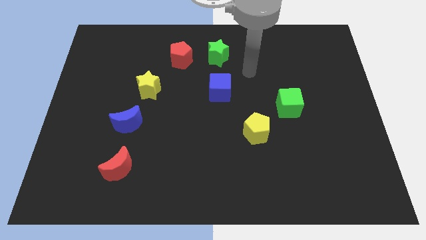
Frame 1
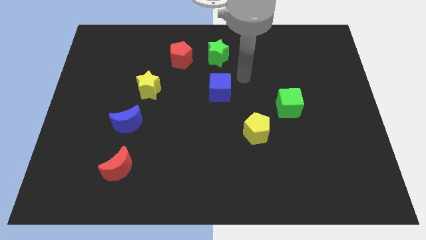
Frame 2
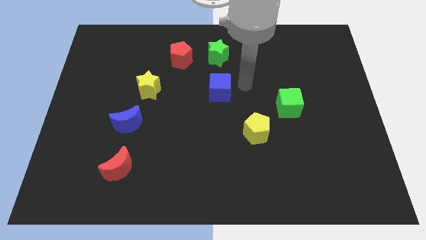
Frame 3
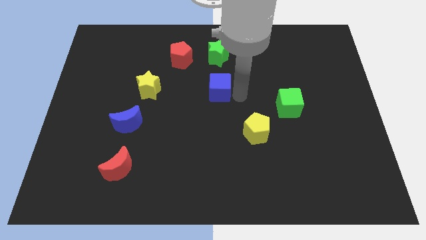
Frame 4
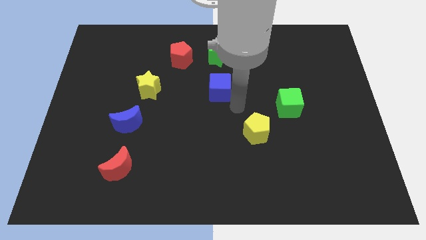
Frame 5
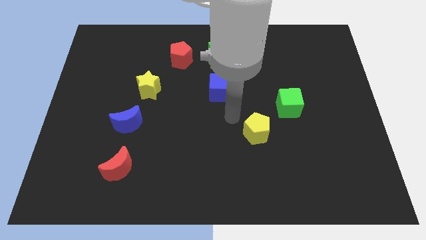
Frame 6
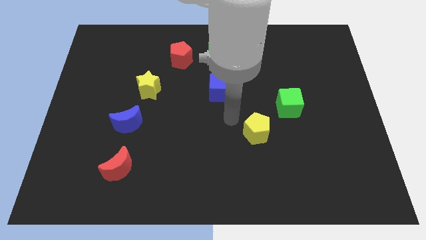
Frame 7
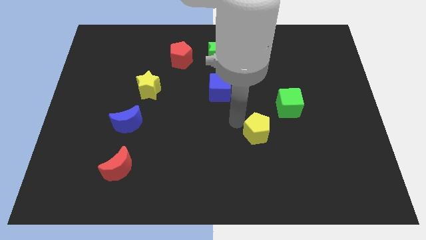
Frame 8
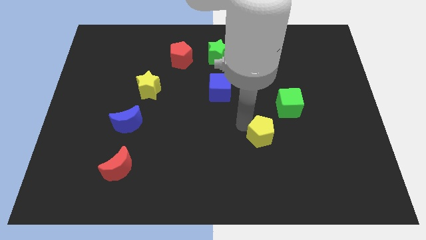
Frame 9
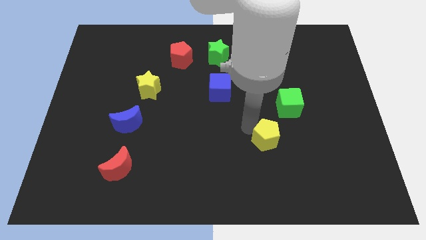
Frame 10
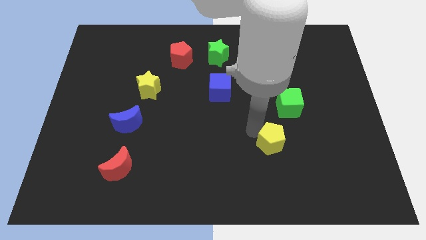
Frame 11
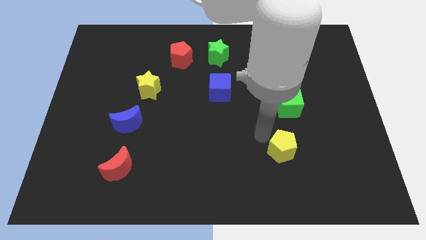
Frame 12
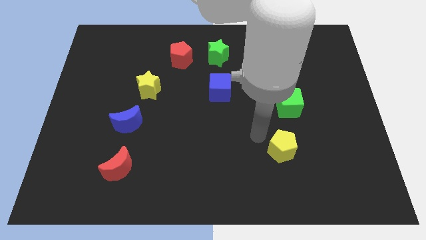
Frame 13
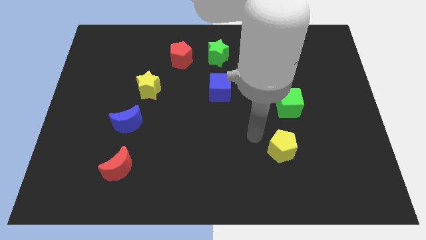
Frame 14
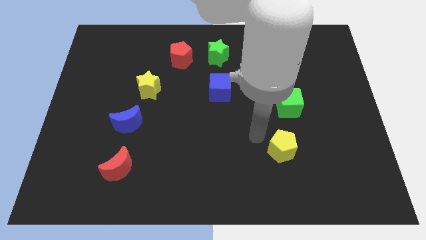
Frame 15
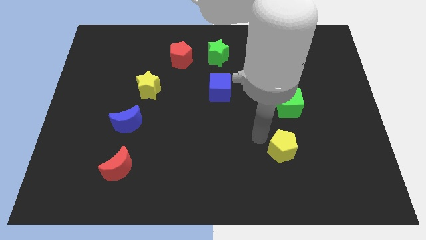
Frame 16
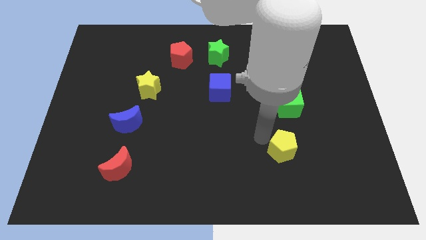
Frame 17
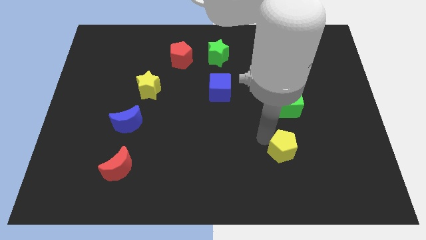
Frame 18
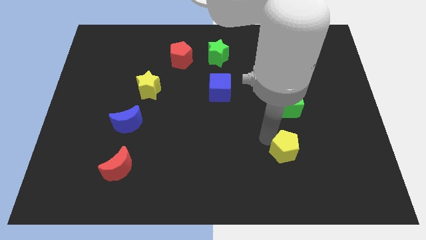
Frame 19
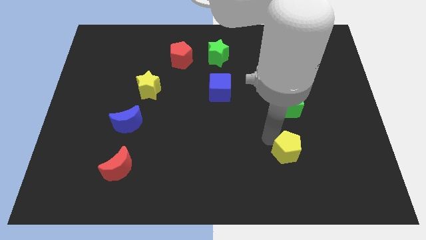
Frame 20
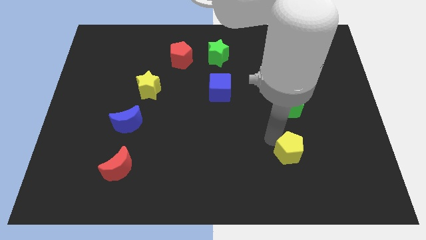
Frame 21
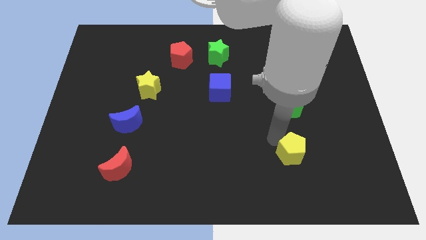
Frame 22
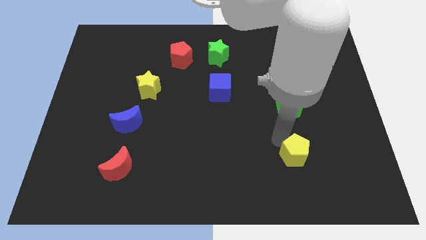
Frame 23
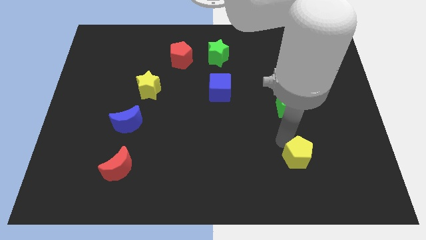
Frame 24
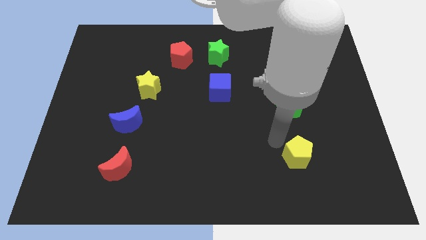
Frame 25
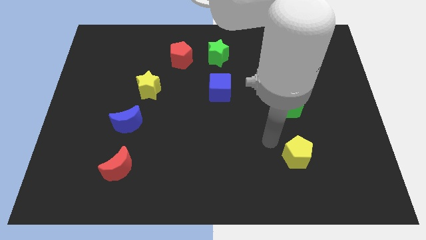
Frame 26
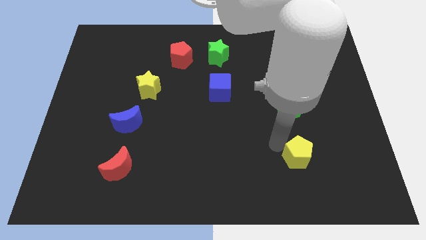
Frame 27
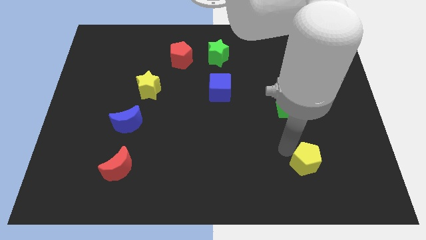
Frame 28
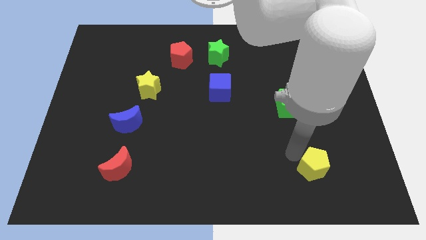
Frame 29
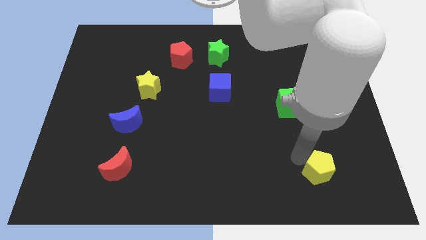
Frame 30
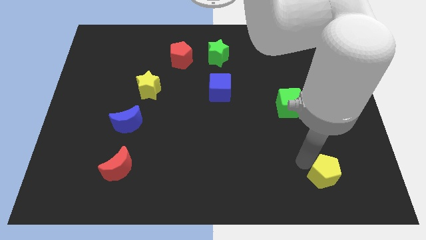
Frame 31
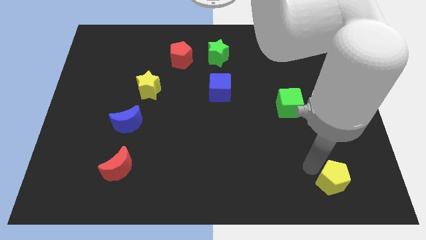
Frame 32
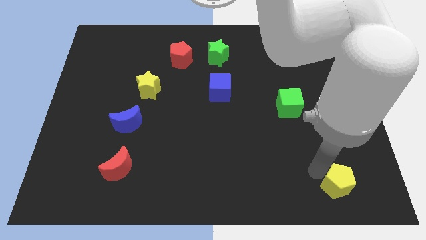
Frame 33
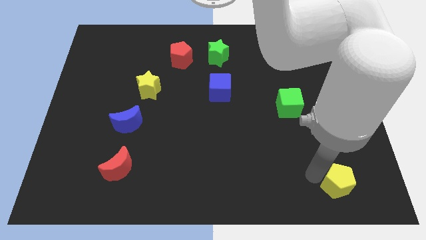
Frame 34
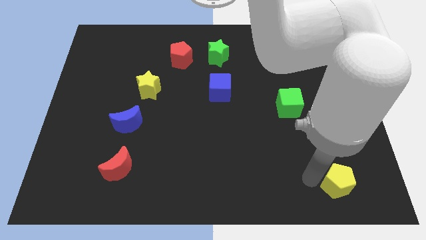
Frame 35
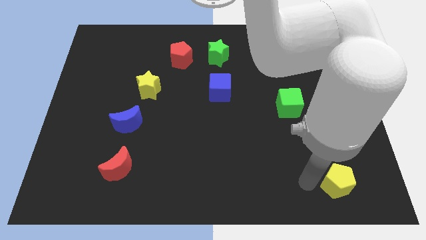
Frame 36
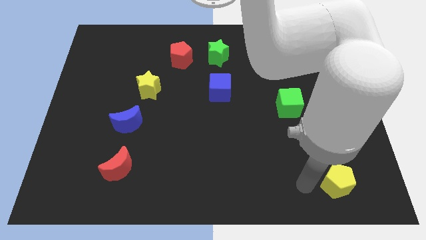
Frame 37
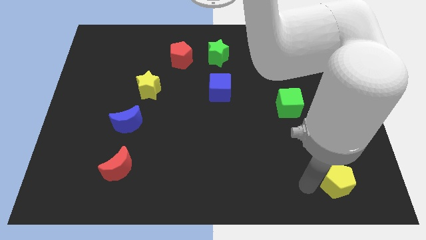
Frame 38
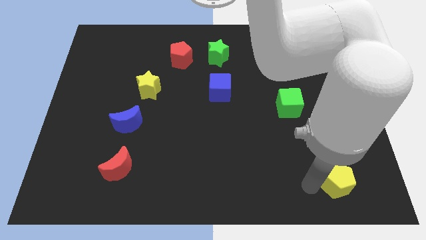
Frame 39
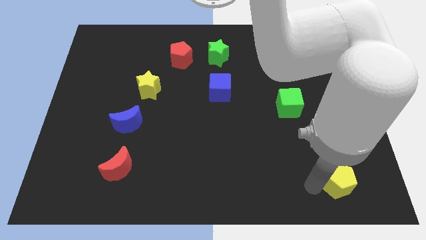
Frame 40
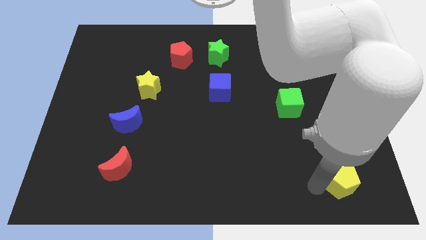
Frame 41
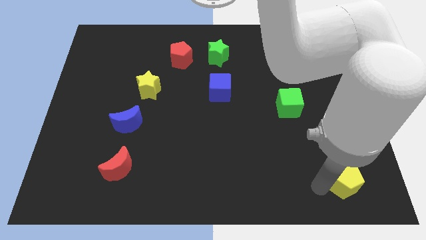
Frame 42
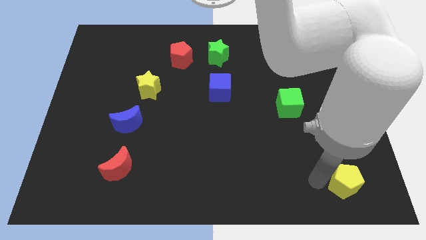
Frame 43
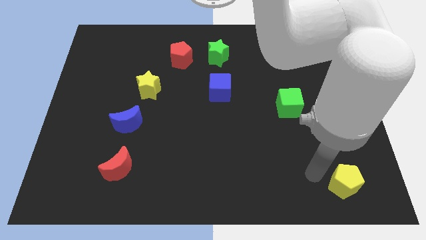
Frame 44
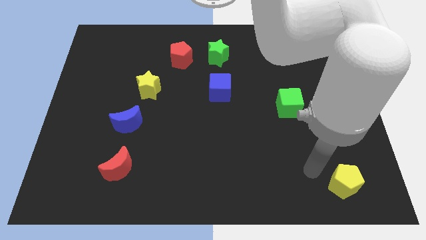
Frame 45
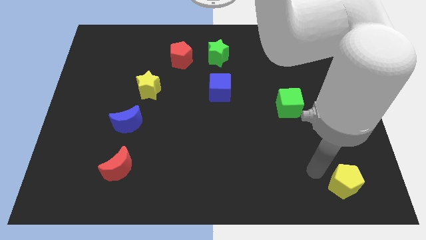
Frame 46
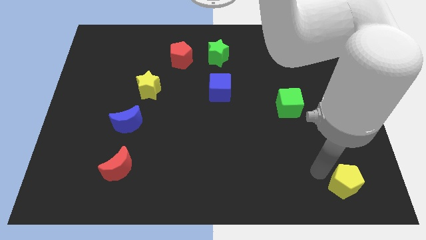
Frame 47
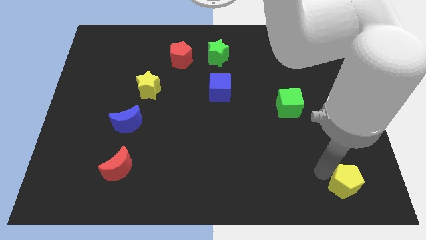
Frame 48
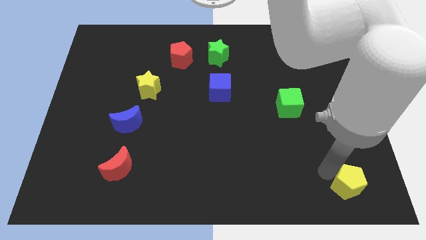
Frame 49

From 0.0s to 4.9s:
push the yellow pentagon to the bottom right

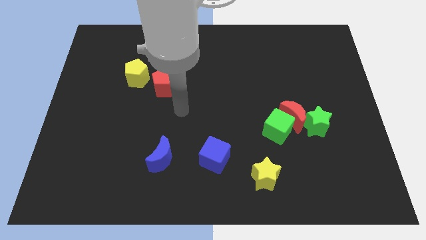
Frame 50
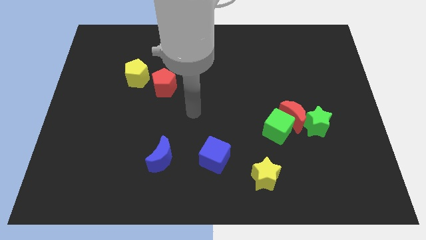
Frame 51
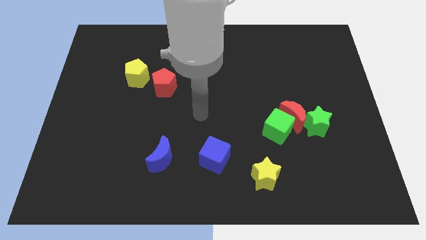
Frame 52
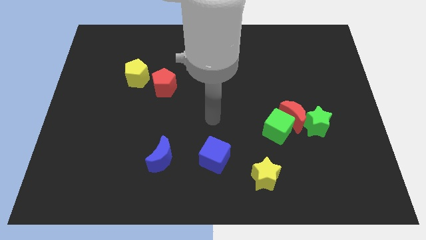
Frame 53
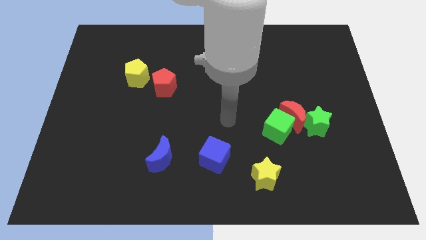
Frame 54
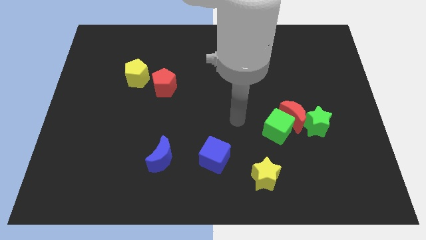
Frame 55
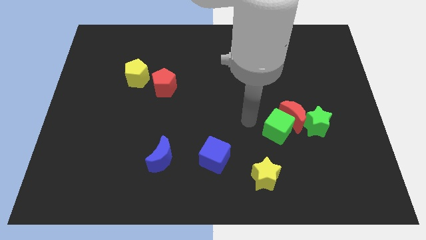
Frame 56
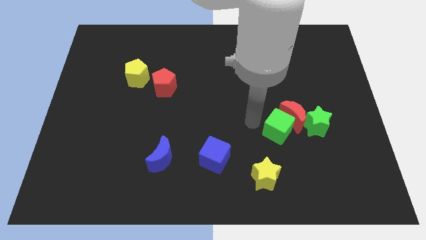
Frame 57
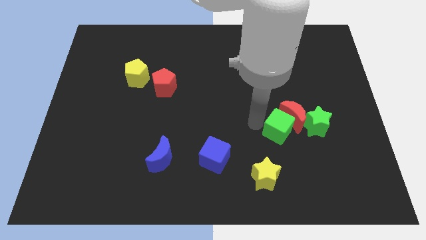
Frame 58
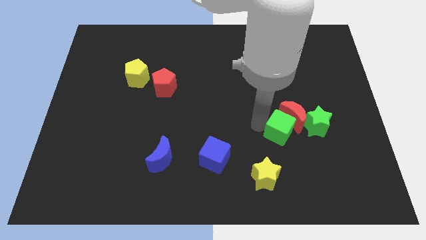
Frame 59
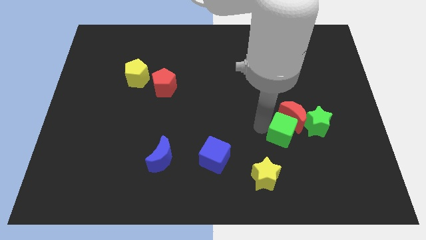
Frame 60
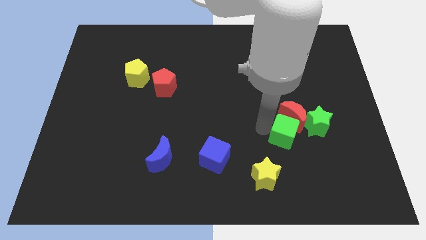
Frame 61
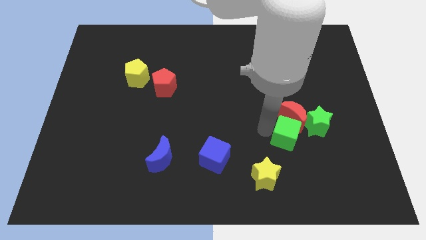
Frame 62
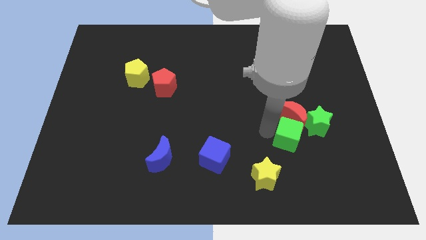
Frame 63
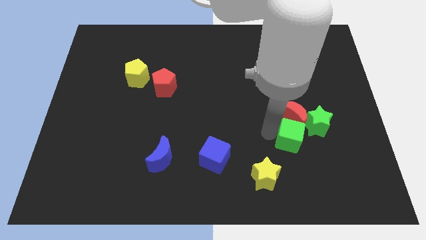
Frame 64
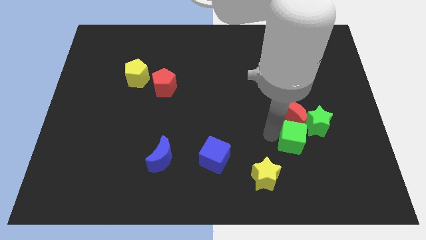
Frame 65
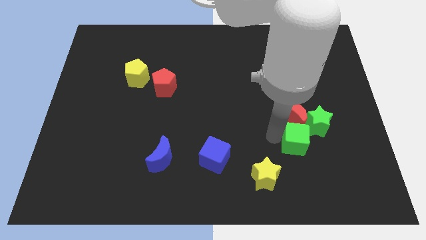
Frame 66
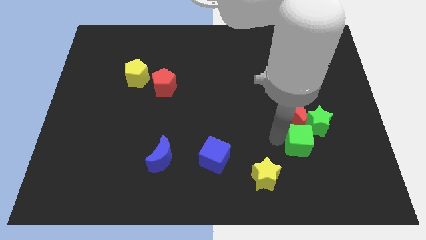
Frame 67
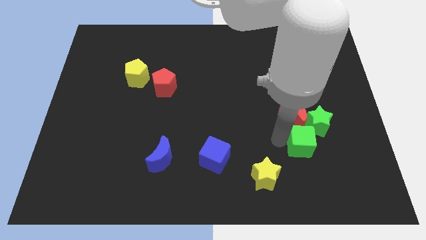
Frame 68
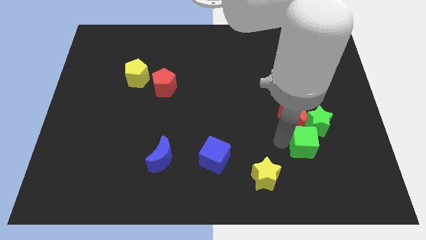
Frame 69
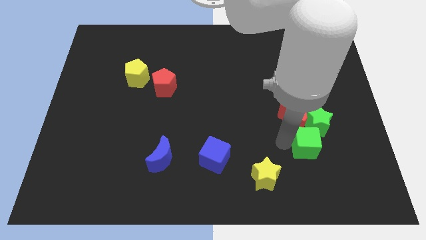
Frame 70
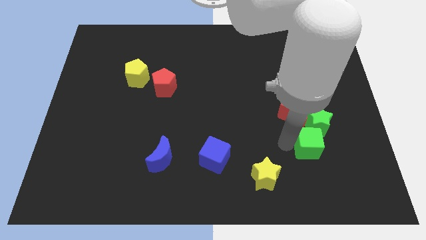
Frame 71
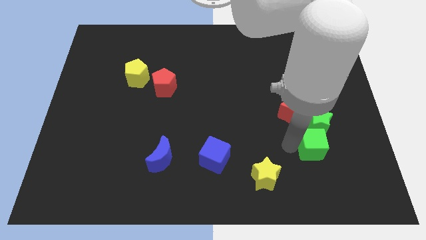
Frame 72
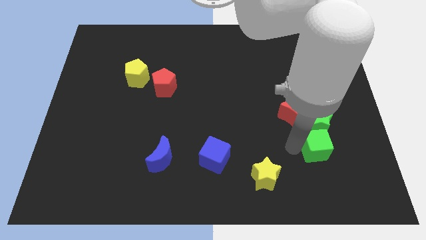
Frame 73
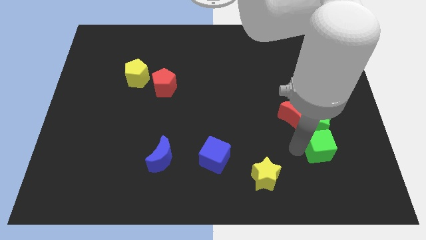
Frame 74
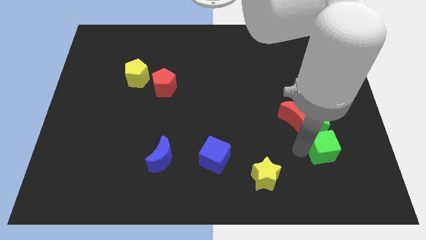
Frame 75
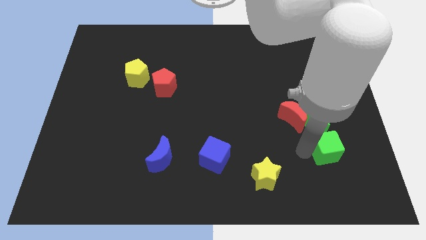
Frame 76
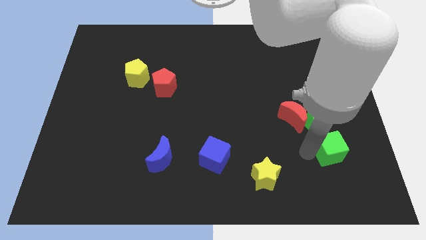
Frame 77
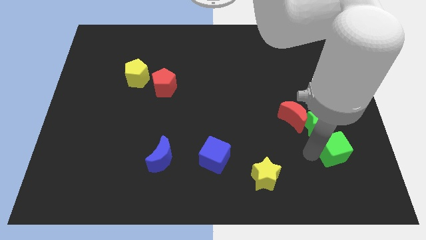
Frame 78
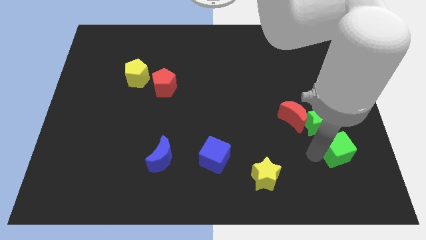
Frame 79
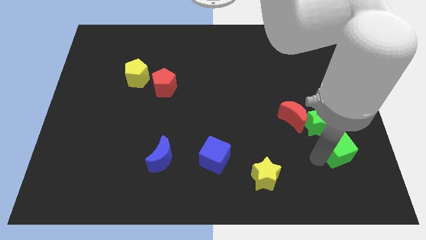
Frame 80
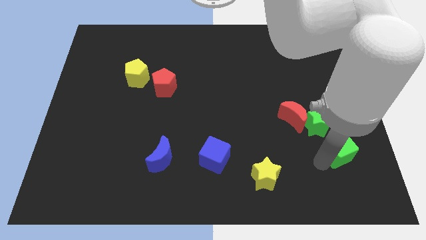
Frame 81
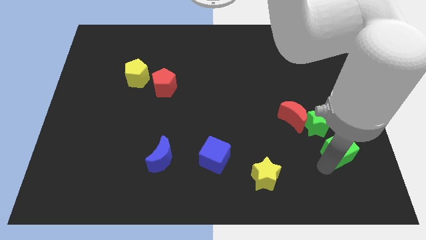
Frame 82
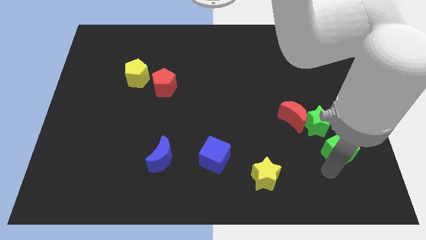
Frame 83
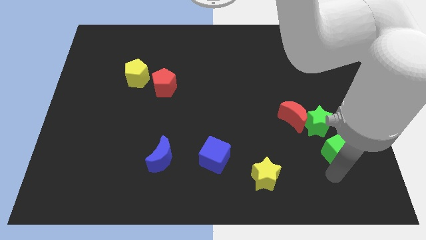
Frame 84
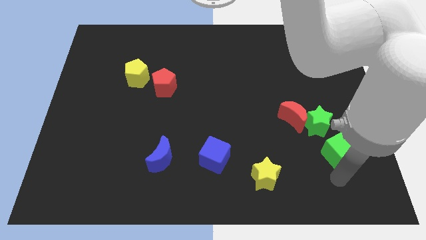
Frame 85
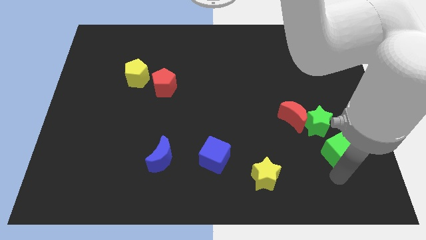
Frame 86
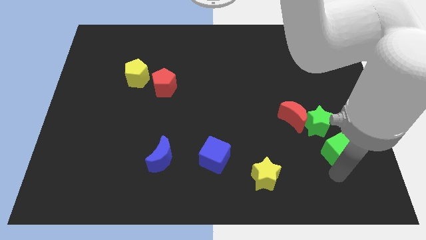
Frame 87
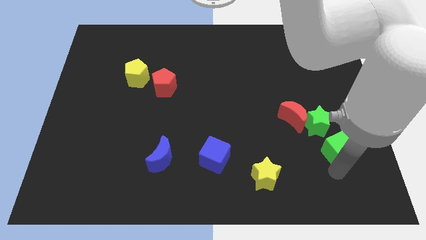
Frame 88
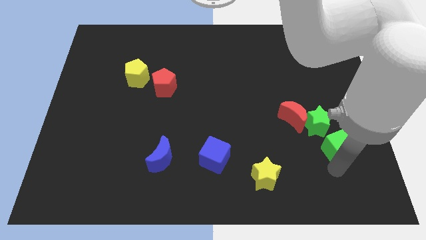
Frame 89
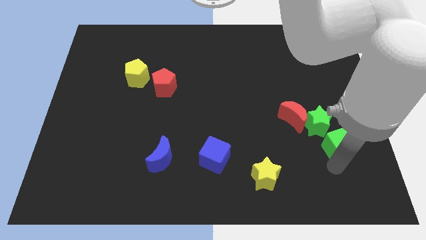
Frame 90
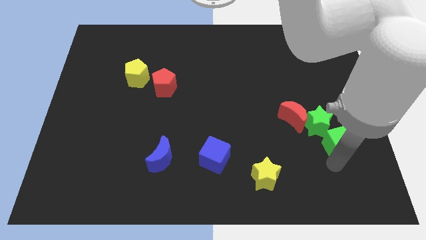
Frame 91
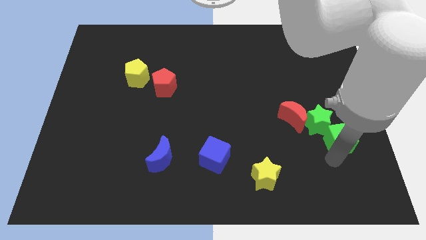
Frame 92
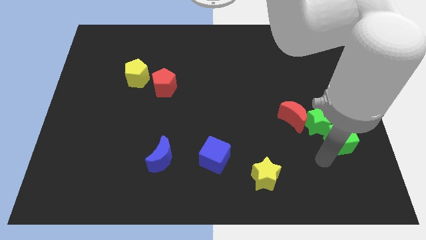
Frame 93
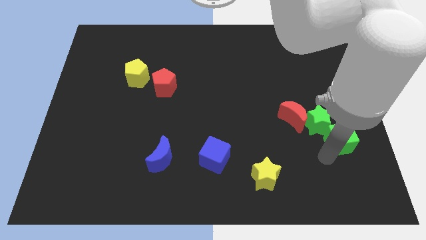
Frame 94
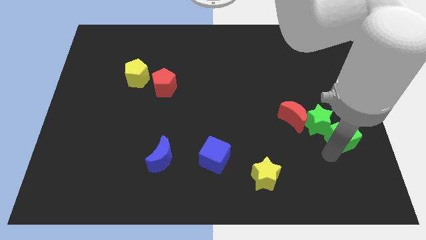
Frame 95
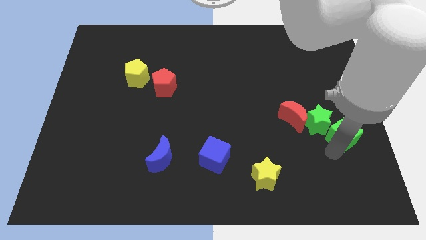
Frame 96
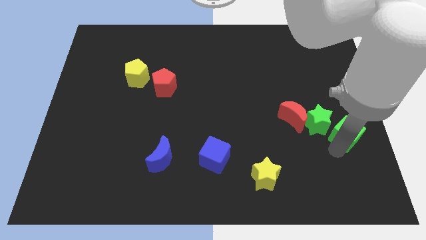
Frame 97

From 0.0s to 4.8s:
put the green cube to the center right
